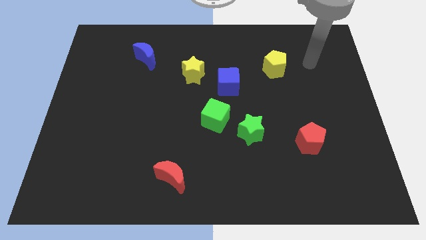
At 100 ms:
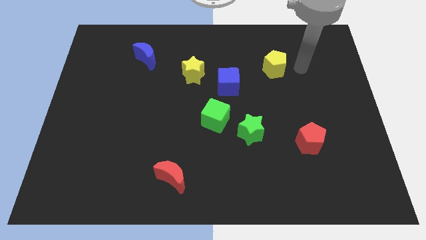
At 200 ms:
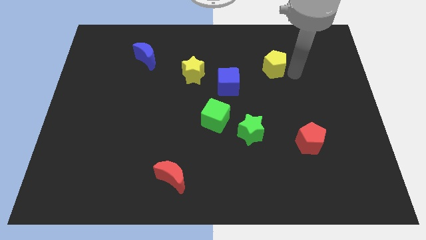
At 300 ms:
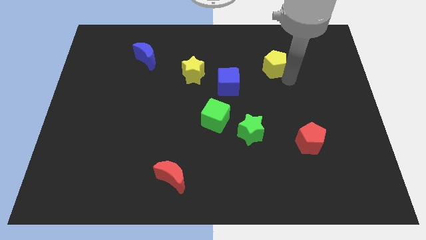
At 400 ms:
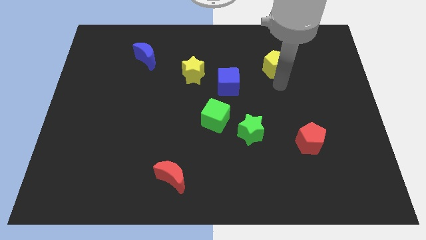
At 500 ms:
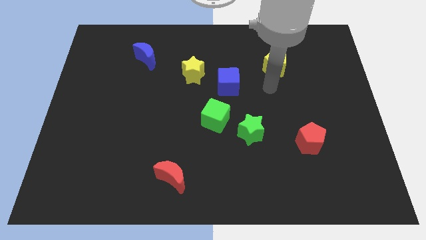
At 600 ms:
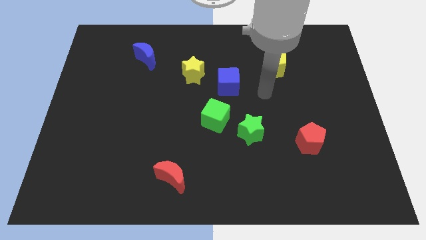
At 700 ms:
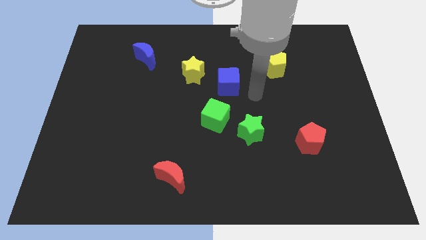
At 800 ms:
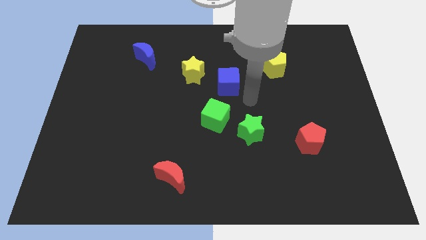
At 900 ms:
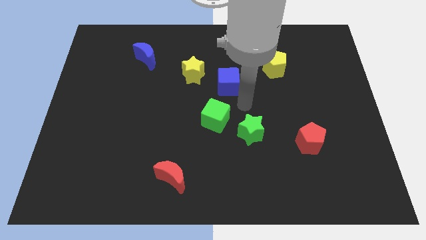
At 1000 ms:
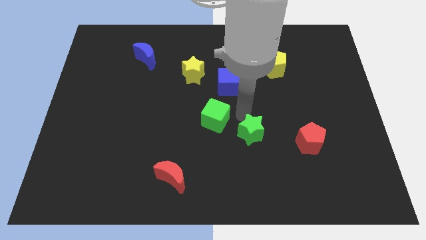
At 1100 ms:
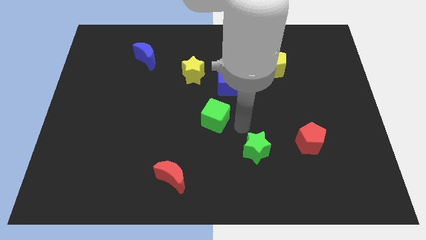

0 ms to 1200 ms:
move the green cube away from the green star

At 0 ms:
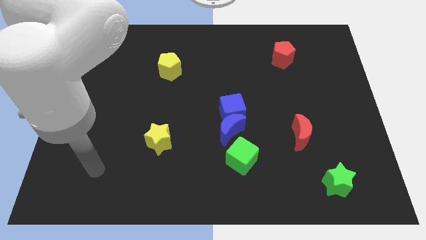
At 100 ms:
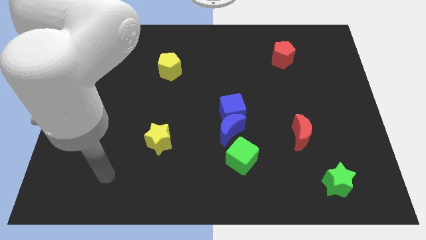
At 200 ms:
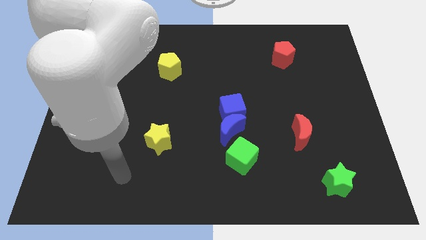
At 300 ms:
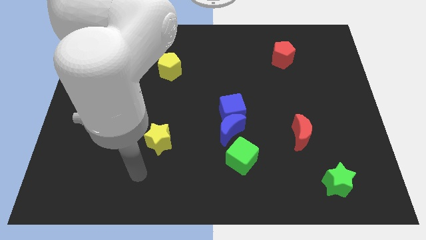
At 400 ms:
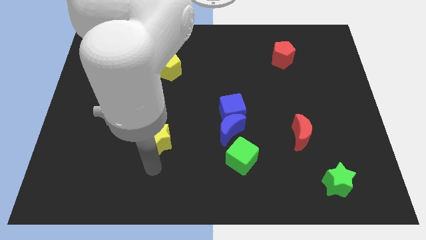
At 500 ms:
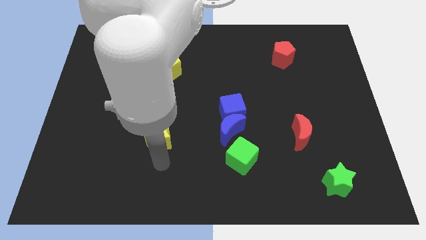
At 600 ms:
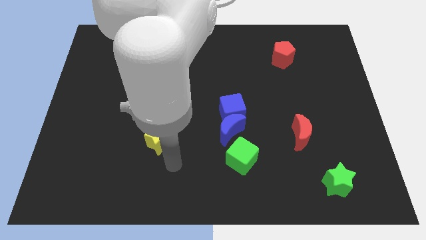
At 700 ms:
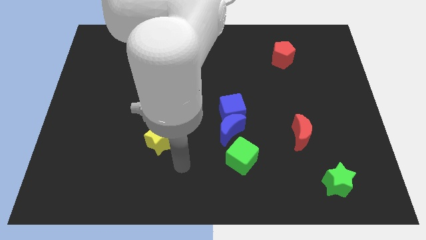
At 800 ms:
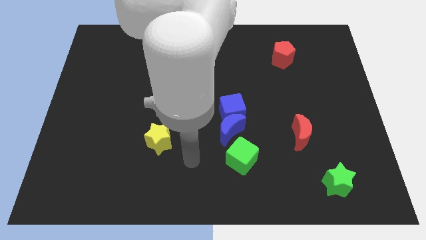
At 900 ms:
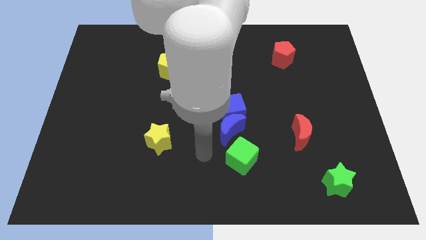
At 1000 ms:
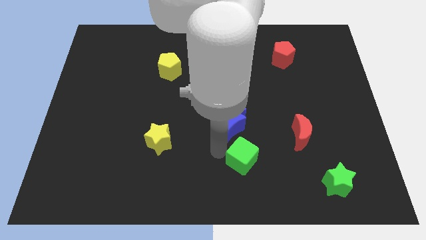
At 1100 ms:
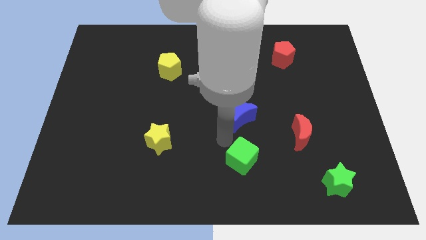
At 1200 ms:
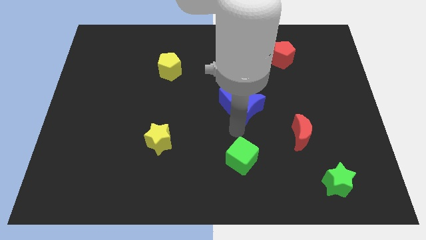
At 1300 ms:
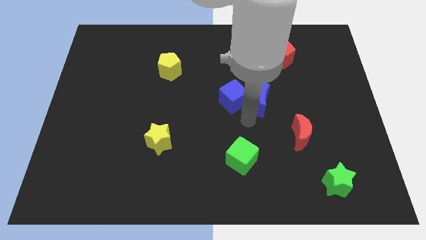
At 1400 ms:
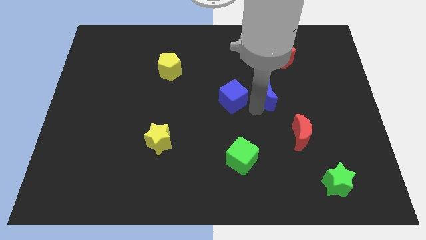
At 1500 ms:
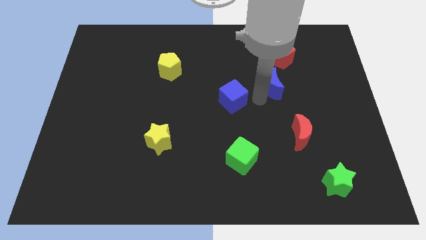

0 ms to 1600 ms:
pull the blue cube apart from the blue moon

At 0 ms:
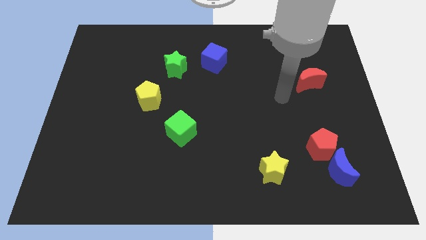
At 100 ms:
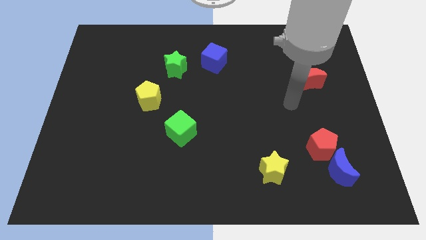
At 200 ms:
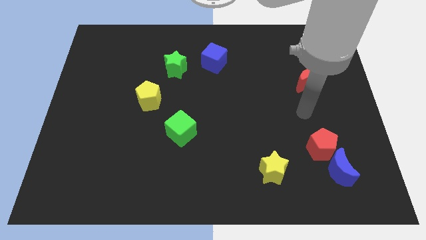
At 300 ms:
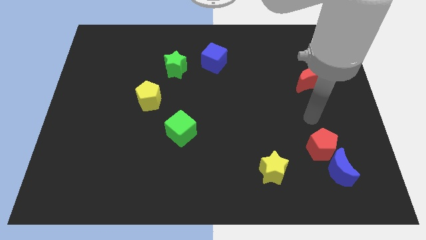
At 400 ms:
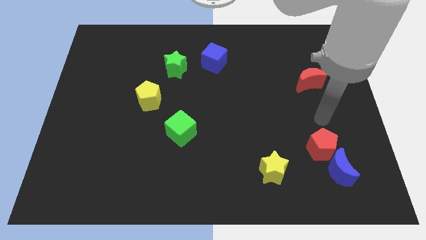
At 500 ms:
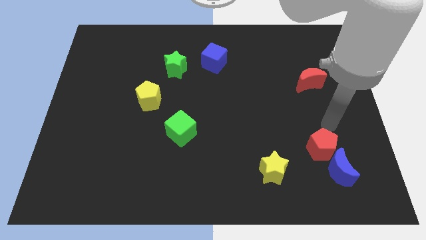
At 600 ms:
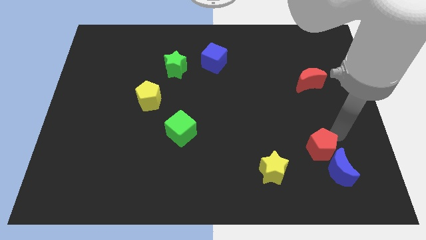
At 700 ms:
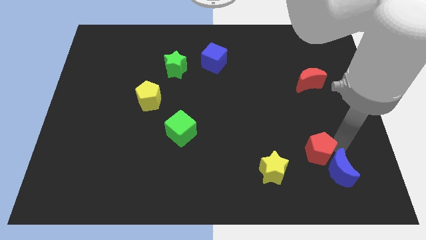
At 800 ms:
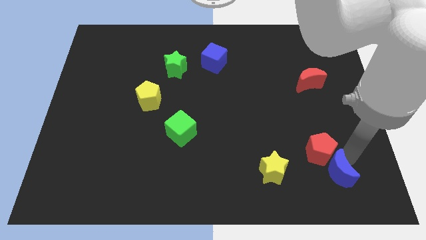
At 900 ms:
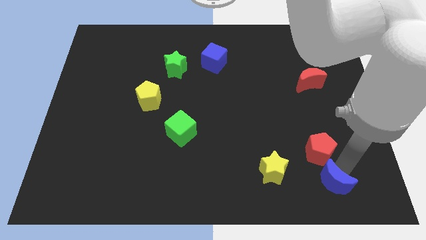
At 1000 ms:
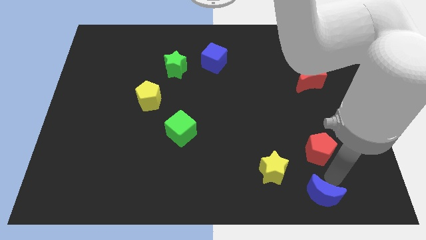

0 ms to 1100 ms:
separate the red pentagon from the blue moon

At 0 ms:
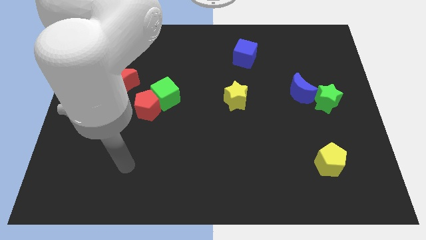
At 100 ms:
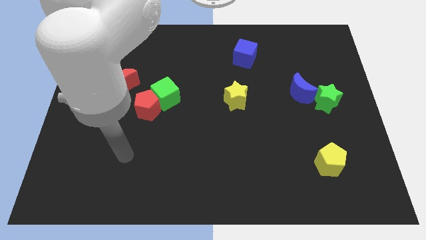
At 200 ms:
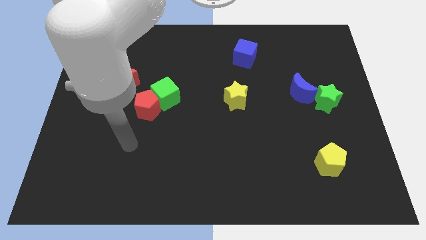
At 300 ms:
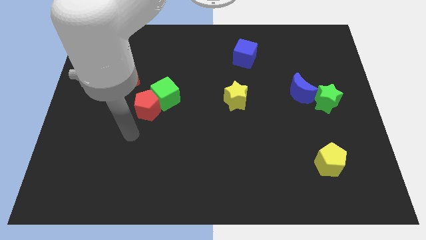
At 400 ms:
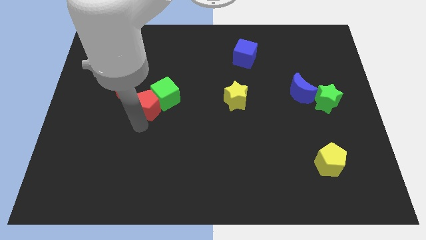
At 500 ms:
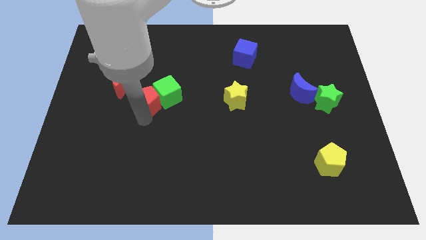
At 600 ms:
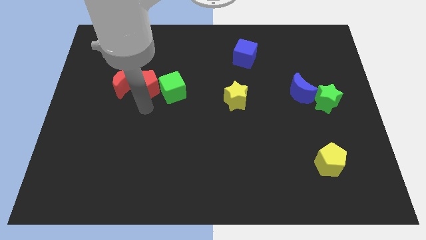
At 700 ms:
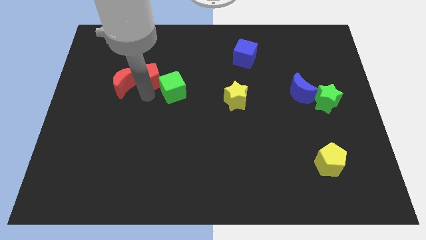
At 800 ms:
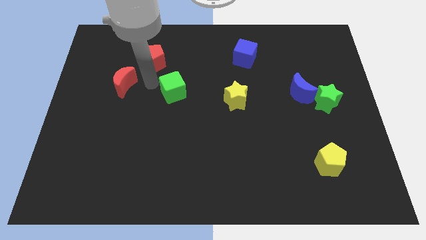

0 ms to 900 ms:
move the green cube away from the red pentagon

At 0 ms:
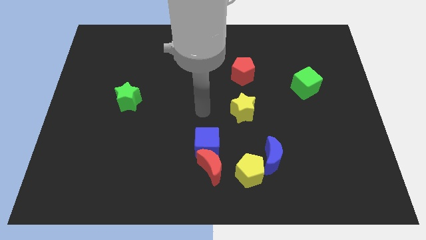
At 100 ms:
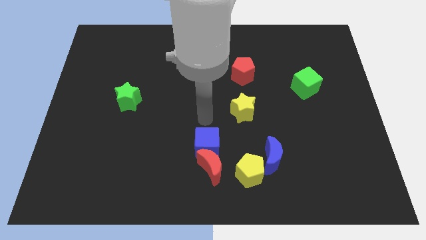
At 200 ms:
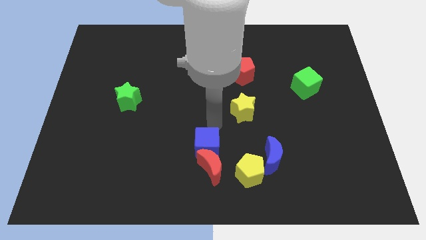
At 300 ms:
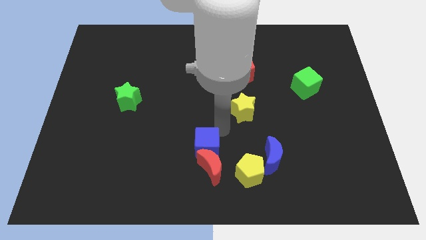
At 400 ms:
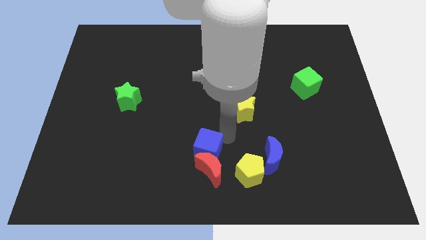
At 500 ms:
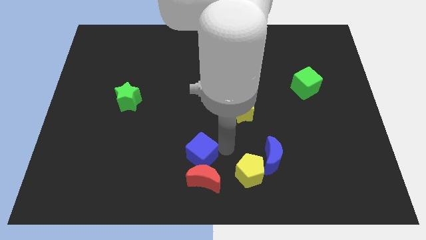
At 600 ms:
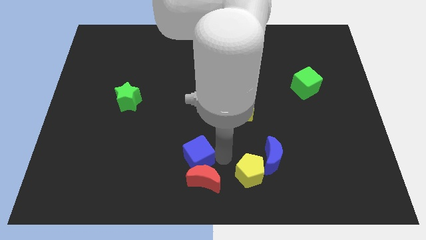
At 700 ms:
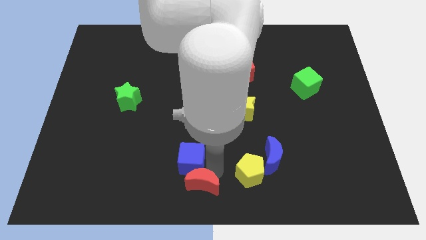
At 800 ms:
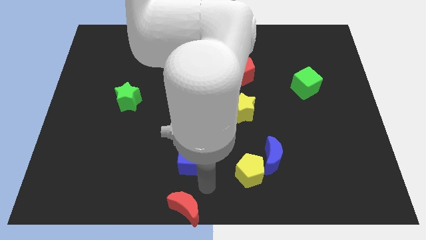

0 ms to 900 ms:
move the blue cube away from the red moon

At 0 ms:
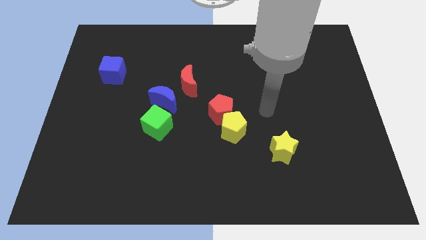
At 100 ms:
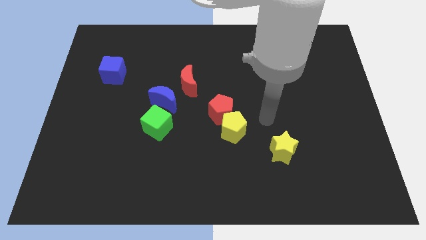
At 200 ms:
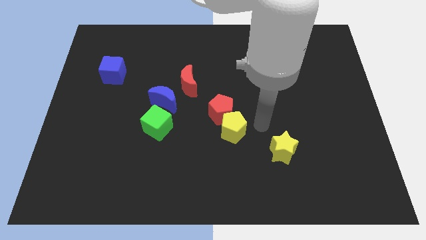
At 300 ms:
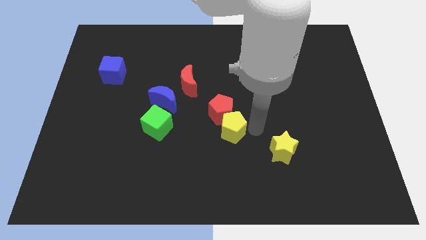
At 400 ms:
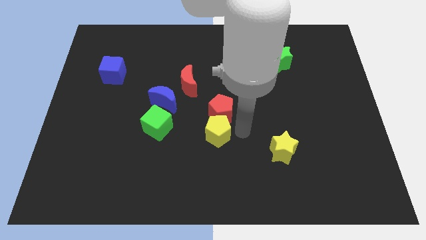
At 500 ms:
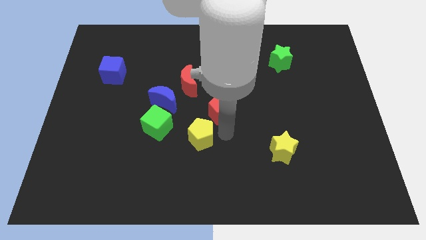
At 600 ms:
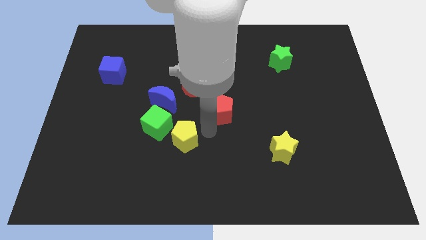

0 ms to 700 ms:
pull the red pentagon apart from the yellow pentagon

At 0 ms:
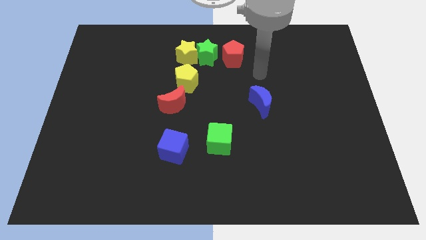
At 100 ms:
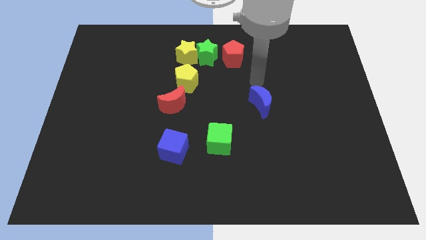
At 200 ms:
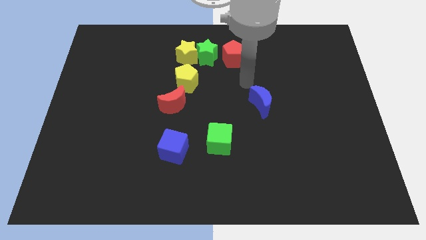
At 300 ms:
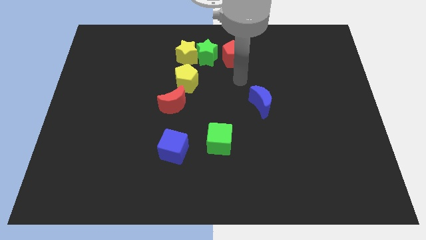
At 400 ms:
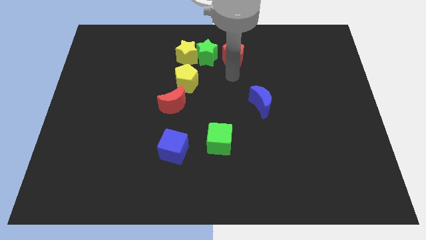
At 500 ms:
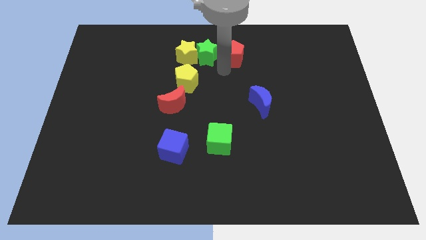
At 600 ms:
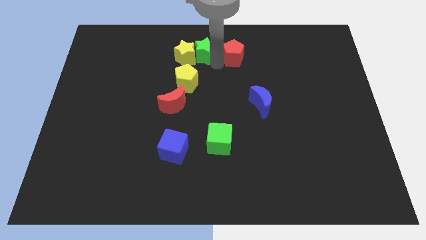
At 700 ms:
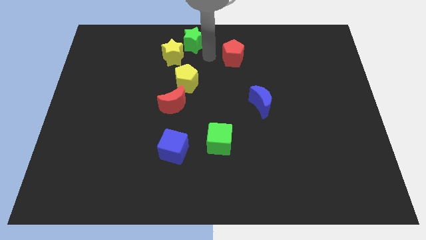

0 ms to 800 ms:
pull the red pentagon apart from the green star

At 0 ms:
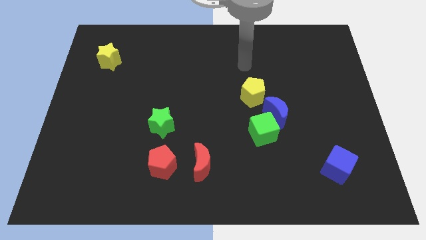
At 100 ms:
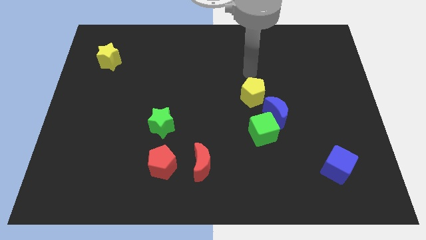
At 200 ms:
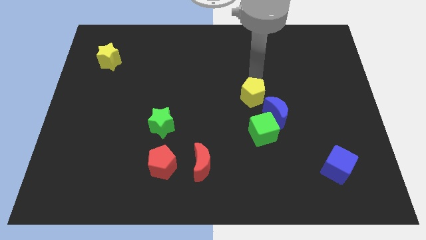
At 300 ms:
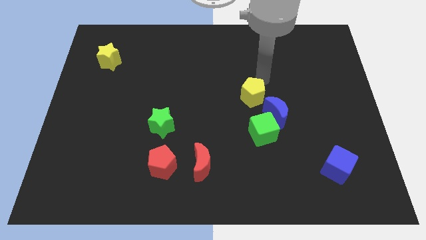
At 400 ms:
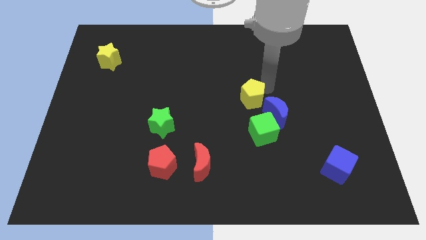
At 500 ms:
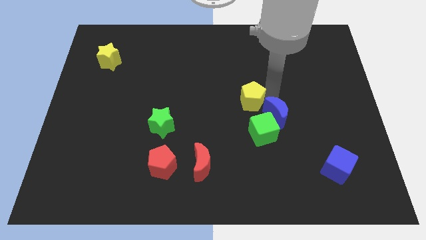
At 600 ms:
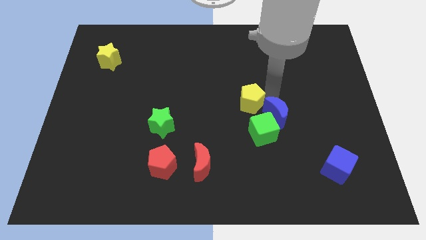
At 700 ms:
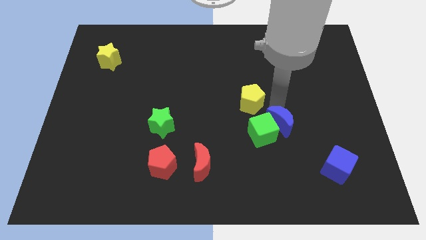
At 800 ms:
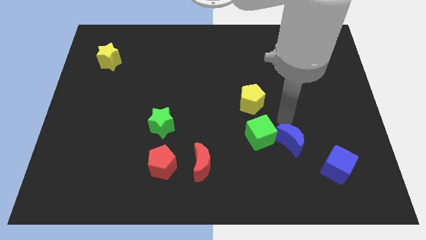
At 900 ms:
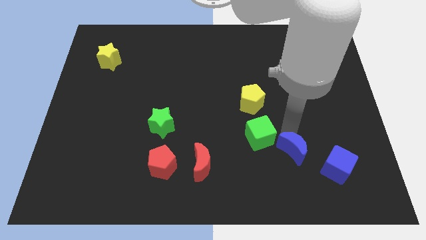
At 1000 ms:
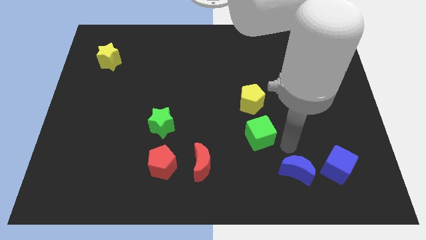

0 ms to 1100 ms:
pull the green cube apart from the blue moon

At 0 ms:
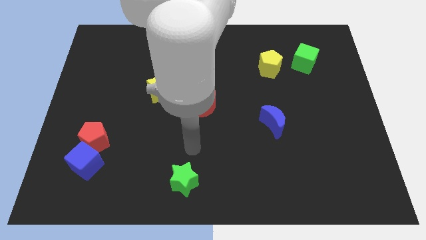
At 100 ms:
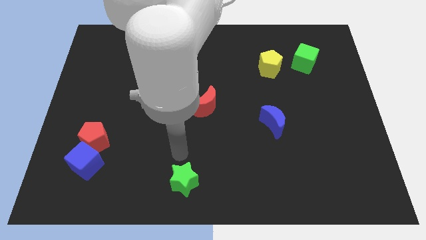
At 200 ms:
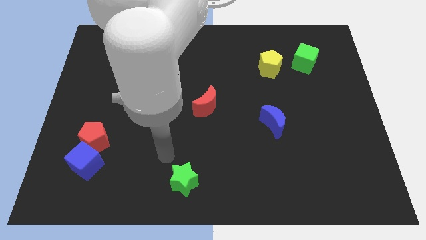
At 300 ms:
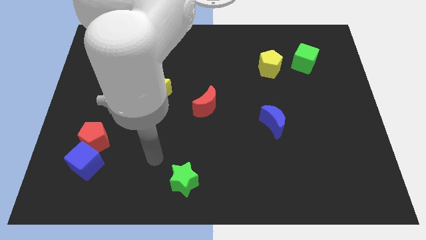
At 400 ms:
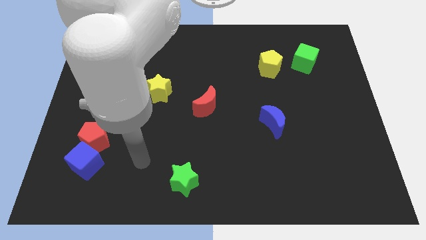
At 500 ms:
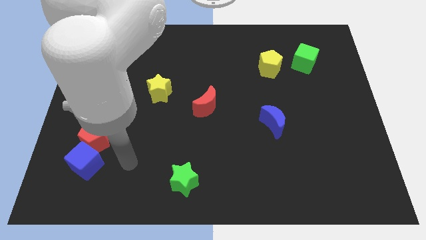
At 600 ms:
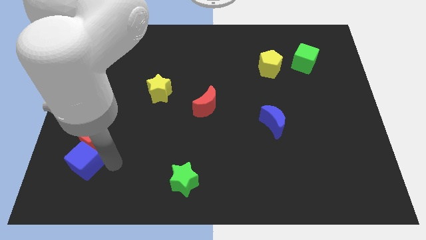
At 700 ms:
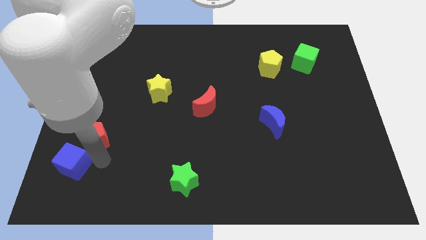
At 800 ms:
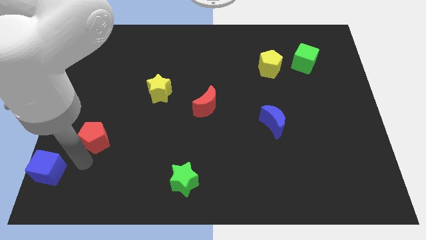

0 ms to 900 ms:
separate the red pentagon from the blue cube

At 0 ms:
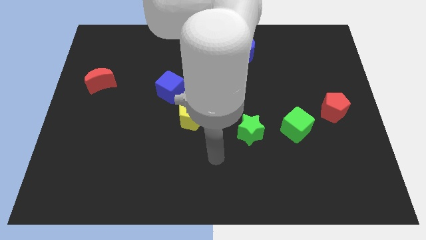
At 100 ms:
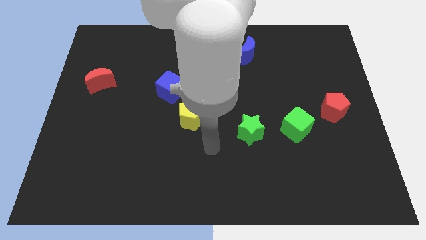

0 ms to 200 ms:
move the blue cube away from the yellow pentagon
